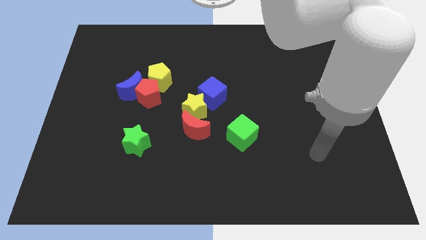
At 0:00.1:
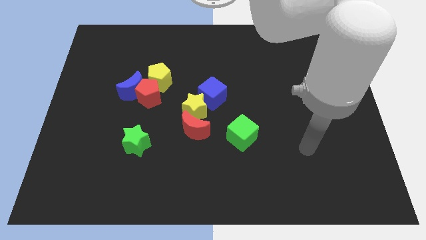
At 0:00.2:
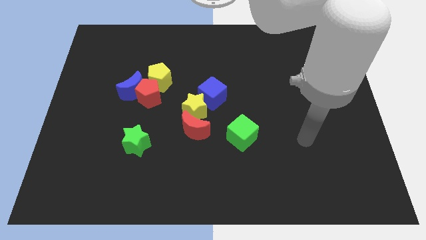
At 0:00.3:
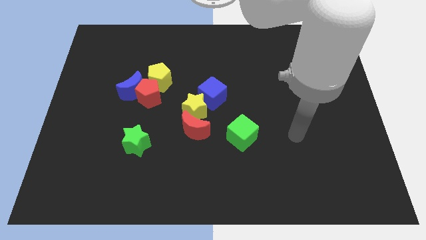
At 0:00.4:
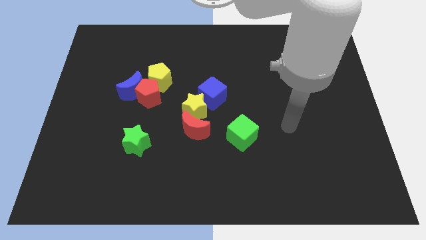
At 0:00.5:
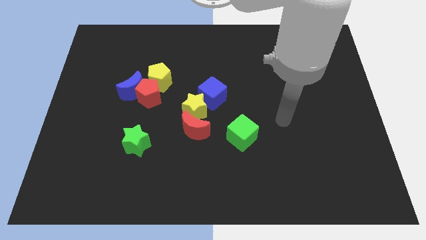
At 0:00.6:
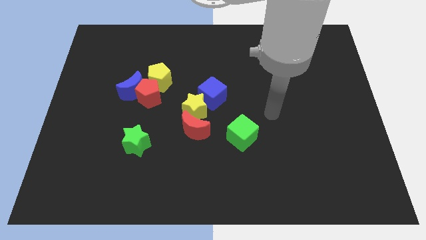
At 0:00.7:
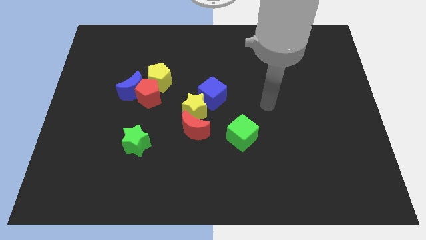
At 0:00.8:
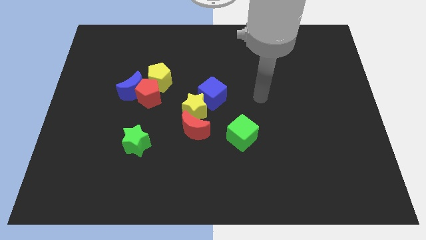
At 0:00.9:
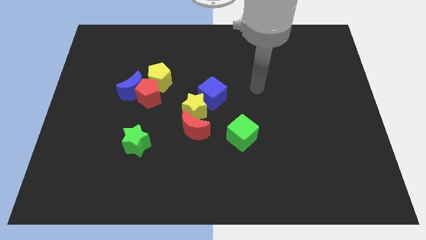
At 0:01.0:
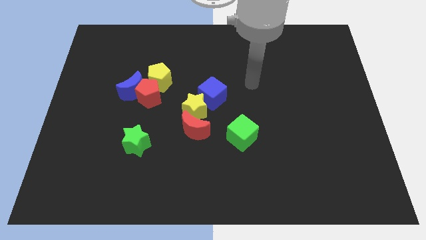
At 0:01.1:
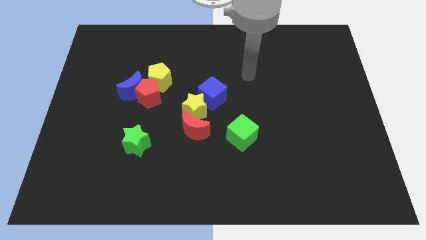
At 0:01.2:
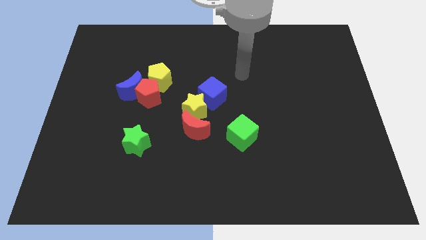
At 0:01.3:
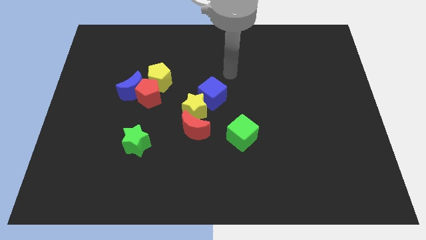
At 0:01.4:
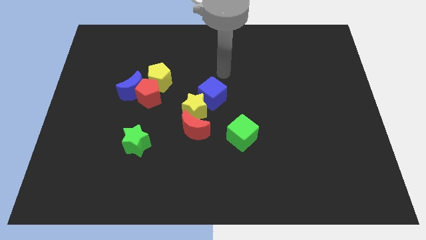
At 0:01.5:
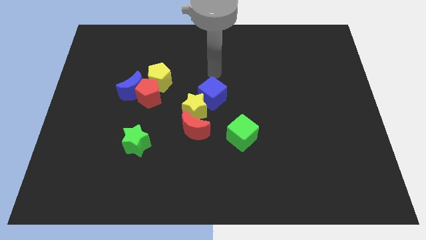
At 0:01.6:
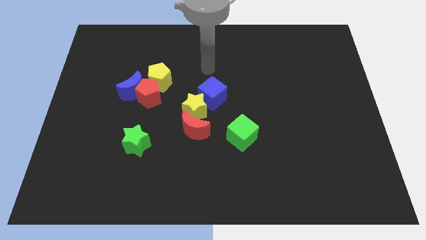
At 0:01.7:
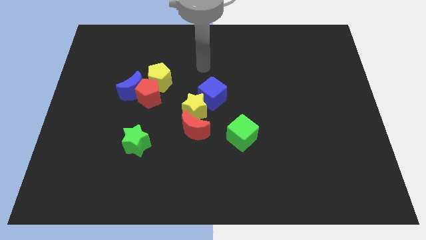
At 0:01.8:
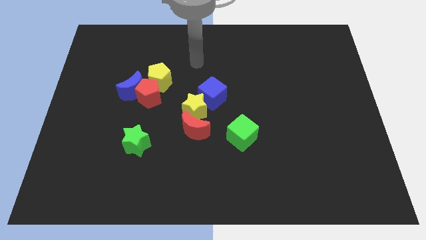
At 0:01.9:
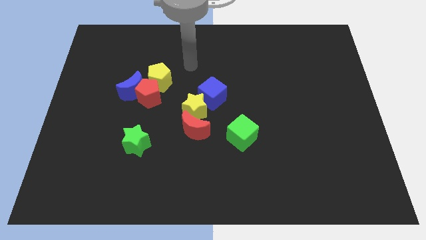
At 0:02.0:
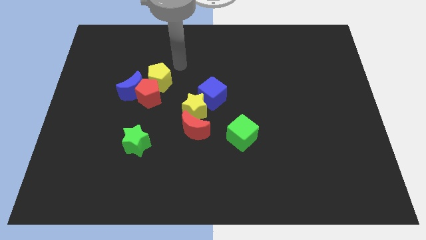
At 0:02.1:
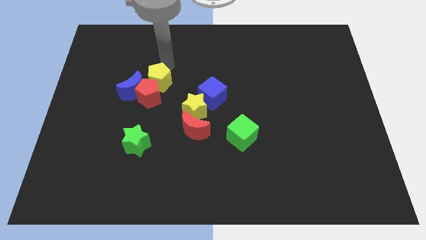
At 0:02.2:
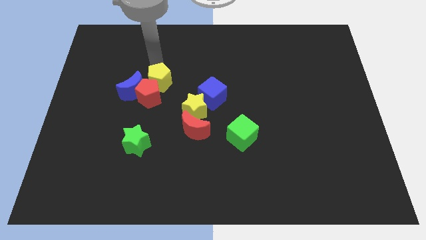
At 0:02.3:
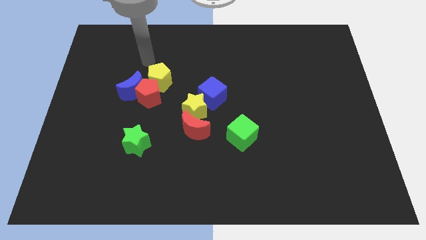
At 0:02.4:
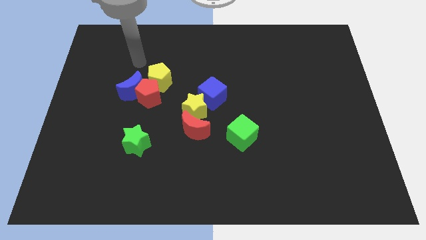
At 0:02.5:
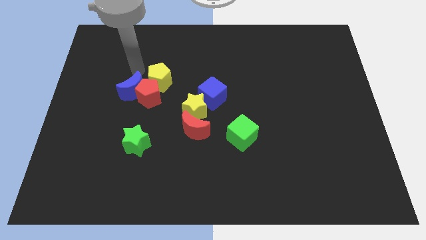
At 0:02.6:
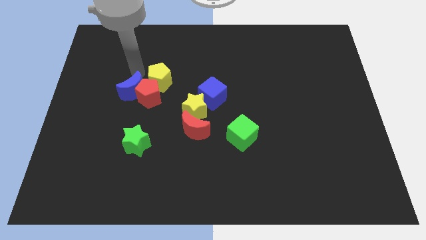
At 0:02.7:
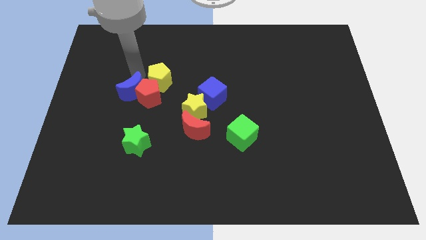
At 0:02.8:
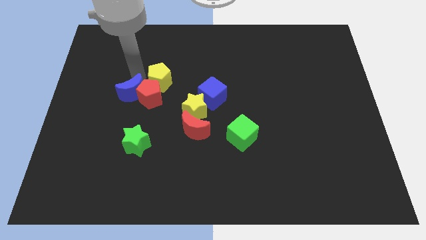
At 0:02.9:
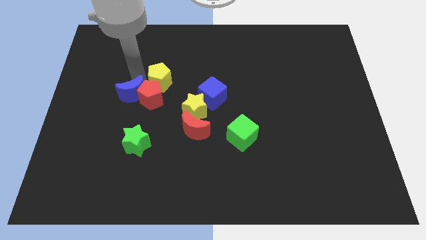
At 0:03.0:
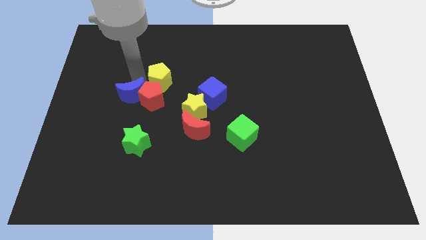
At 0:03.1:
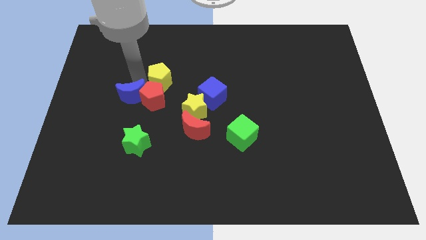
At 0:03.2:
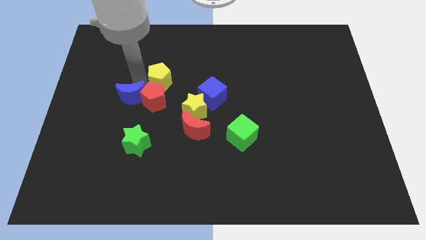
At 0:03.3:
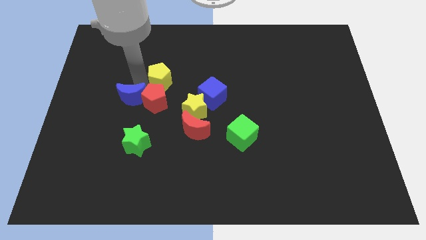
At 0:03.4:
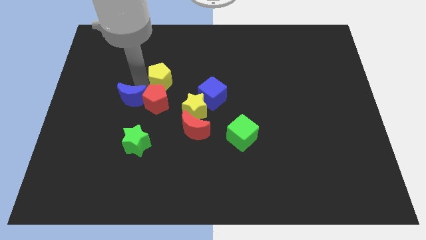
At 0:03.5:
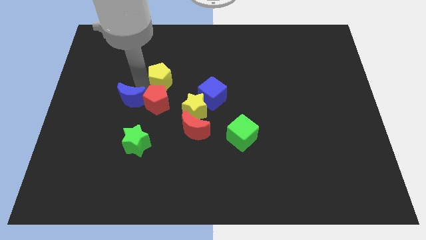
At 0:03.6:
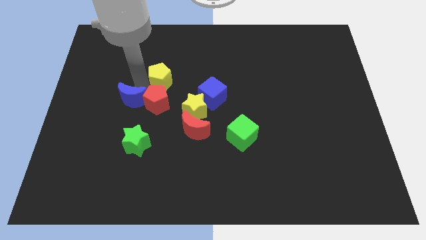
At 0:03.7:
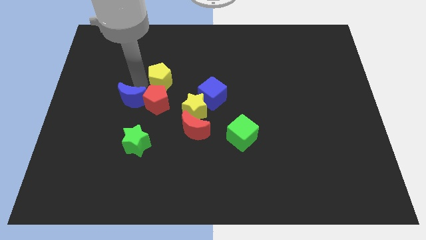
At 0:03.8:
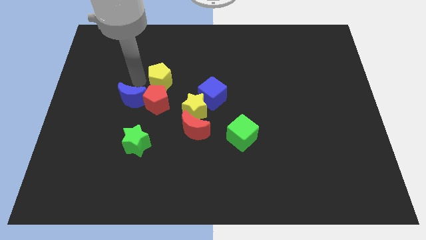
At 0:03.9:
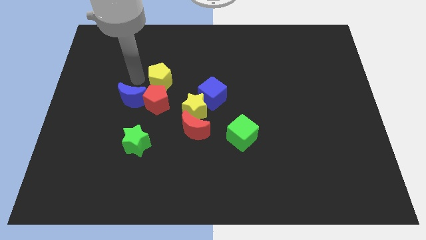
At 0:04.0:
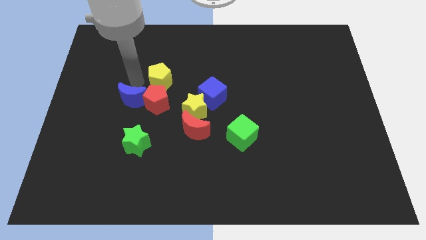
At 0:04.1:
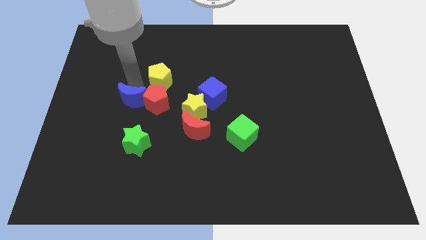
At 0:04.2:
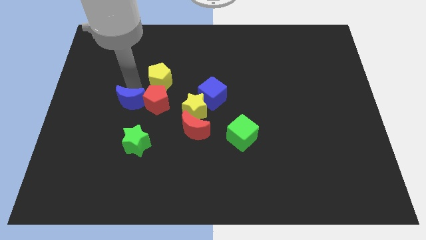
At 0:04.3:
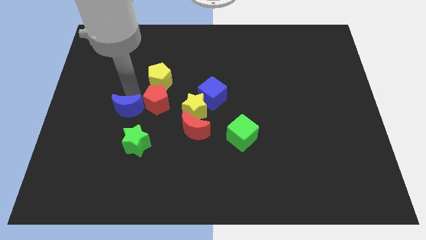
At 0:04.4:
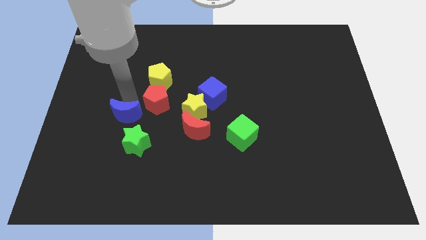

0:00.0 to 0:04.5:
slide the blue moon downwards somewhat

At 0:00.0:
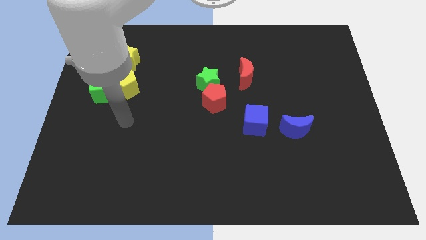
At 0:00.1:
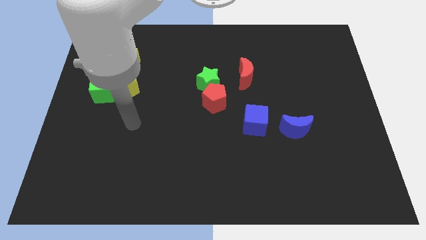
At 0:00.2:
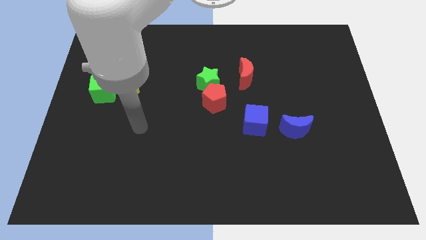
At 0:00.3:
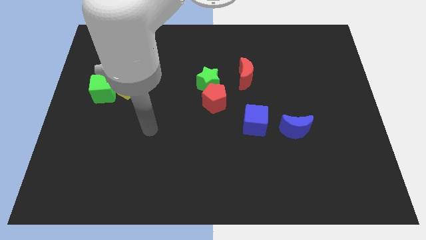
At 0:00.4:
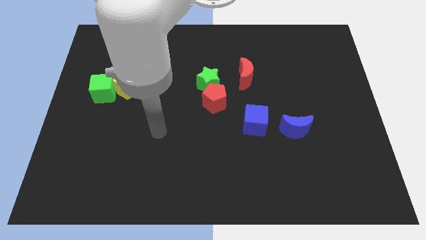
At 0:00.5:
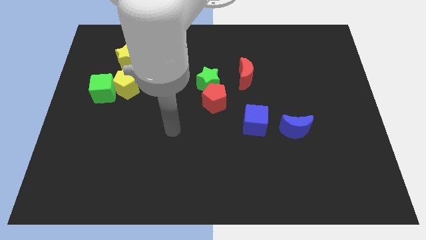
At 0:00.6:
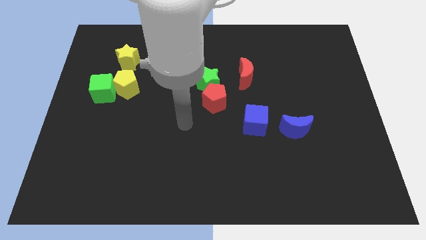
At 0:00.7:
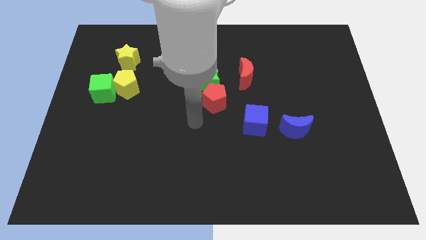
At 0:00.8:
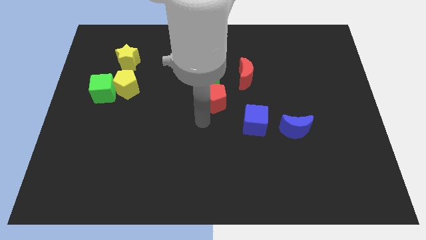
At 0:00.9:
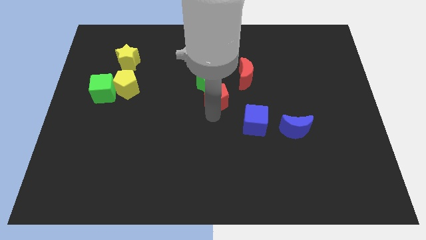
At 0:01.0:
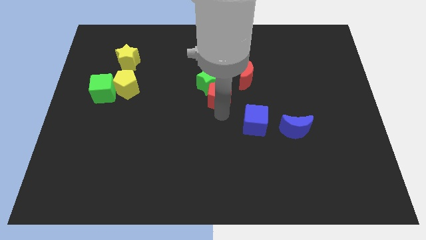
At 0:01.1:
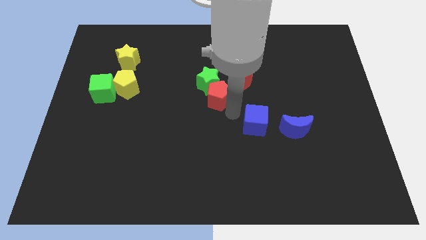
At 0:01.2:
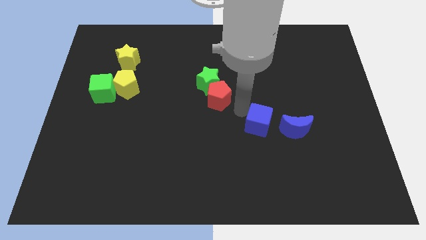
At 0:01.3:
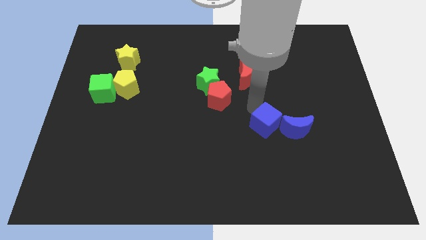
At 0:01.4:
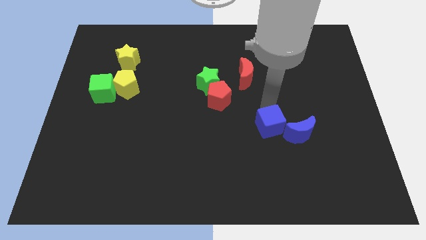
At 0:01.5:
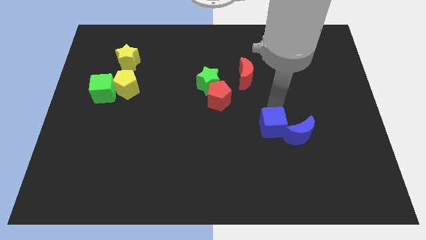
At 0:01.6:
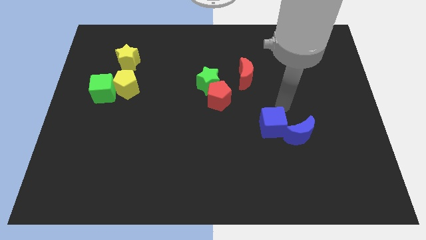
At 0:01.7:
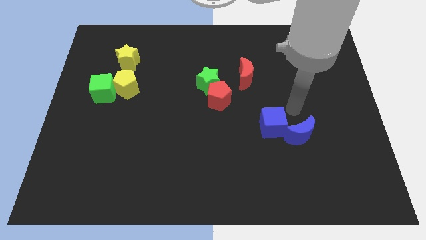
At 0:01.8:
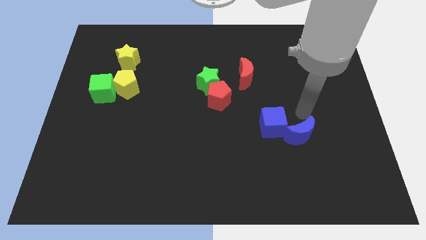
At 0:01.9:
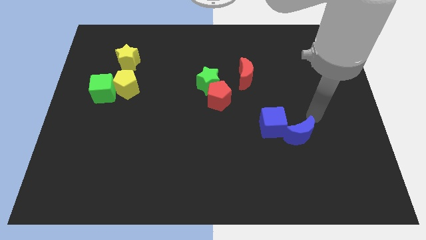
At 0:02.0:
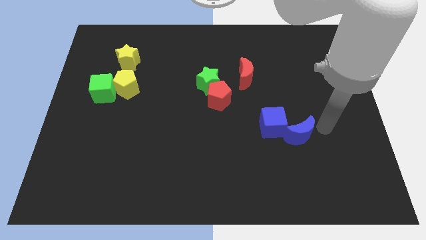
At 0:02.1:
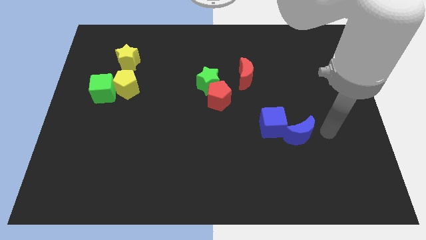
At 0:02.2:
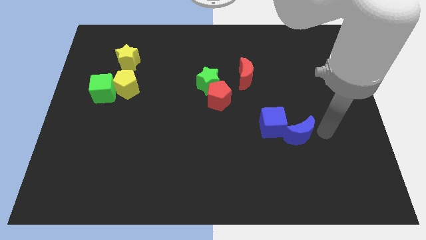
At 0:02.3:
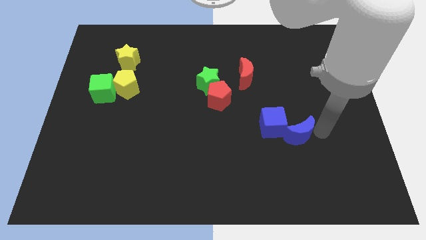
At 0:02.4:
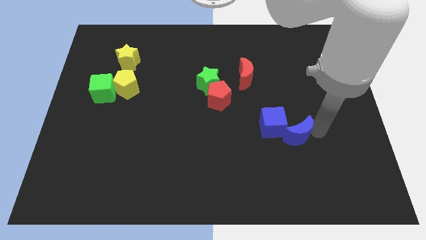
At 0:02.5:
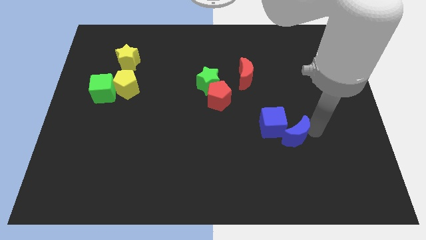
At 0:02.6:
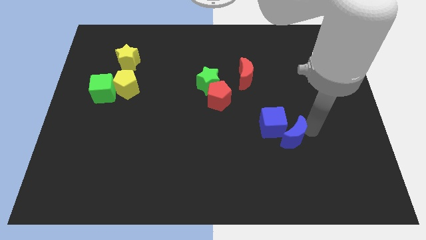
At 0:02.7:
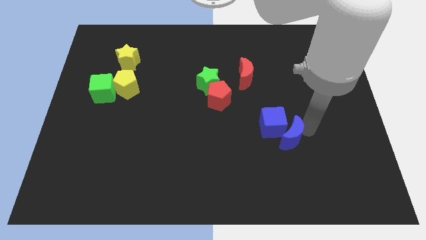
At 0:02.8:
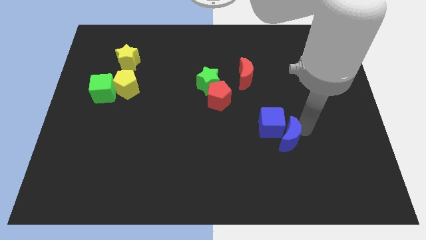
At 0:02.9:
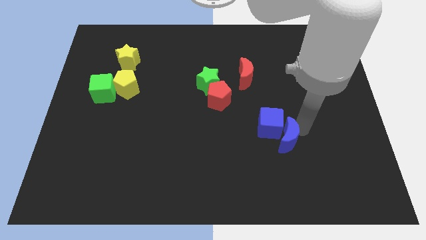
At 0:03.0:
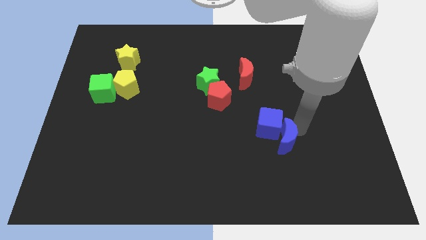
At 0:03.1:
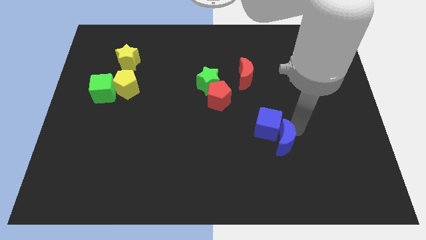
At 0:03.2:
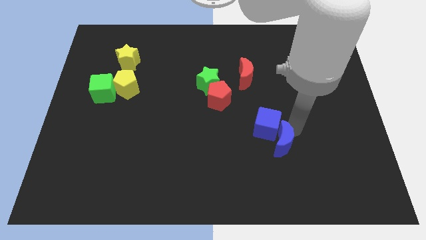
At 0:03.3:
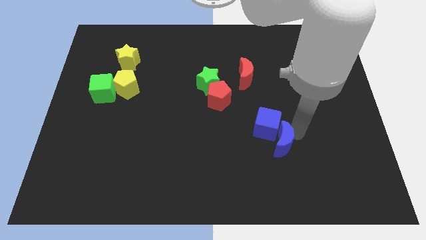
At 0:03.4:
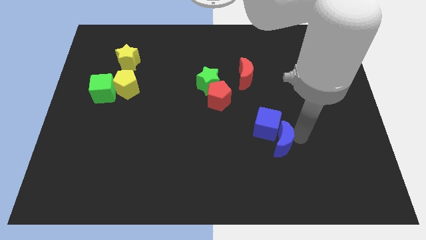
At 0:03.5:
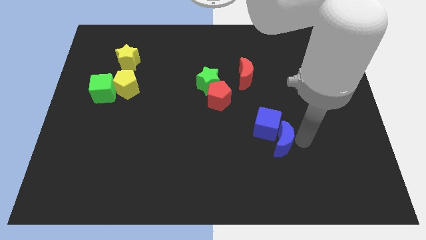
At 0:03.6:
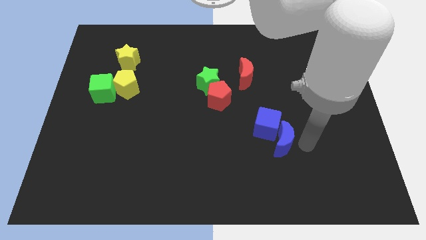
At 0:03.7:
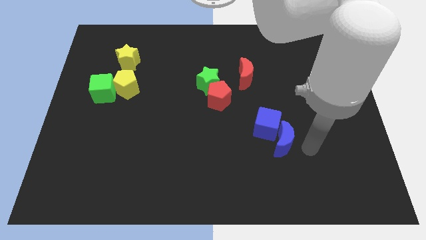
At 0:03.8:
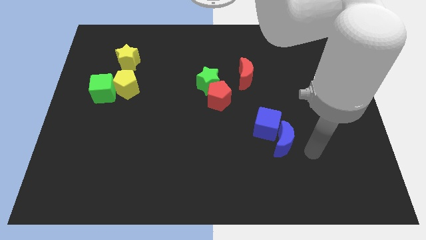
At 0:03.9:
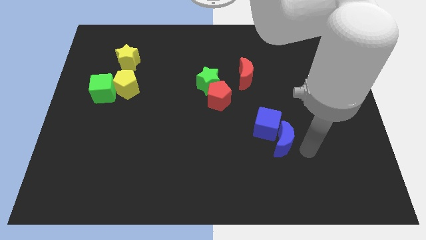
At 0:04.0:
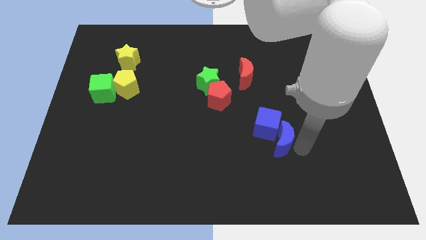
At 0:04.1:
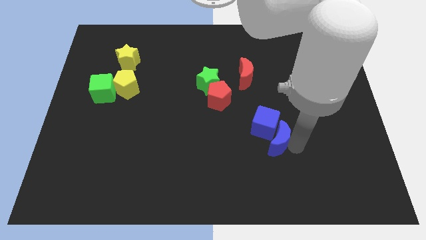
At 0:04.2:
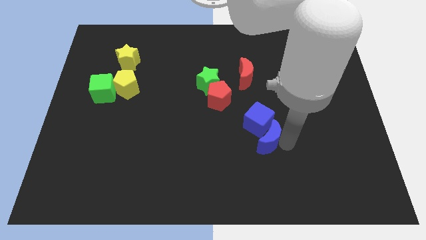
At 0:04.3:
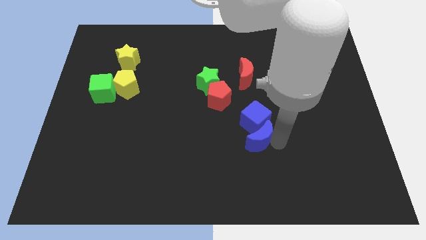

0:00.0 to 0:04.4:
slide the blue moon to the left a little bit
